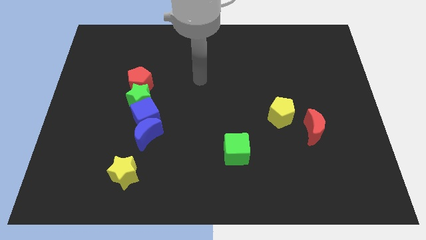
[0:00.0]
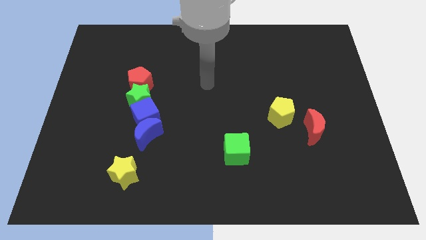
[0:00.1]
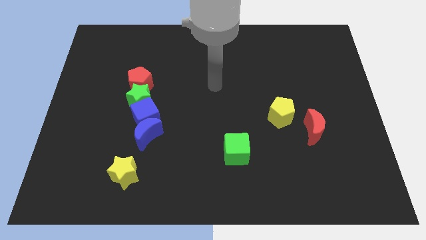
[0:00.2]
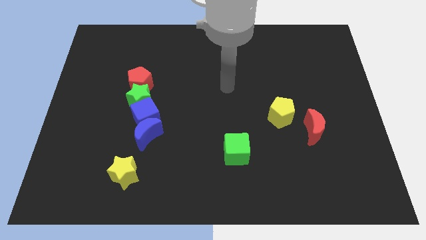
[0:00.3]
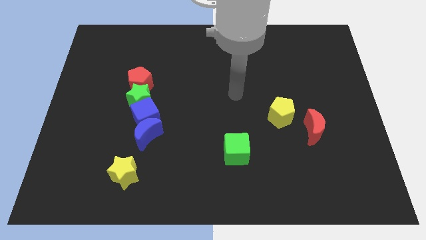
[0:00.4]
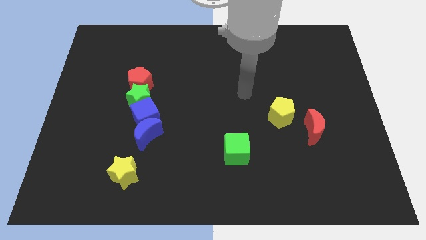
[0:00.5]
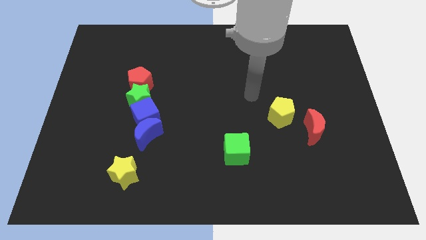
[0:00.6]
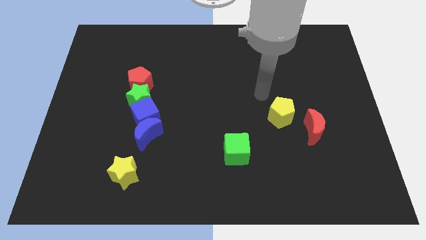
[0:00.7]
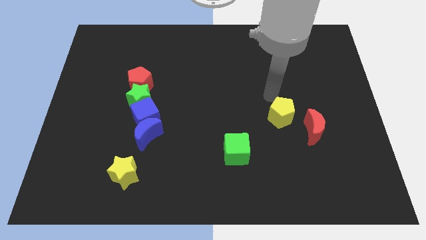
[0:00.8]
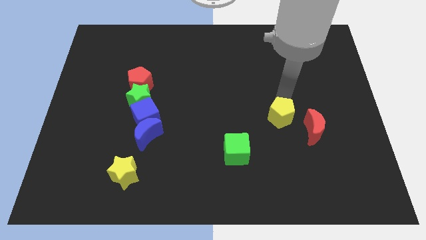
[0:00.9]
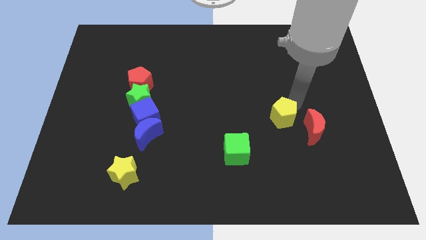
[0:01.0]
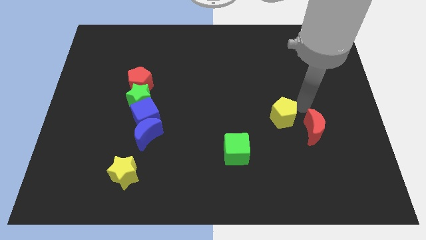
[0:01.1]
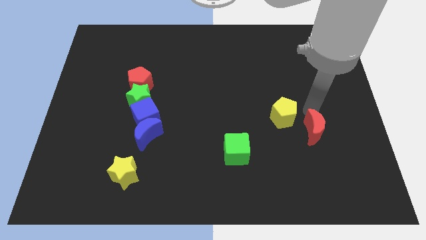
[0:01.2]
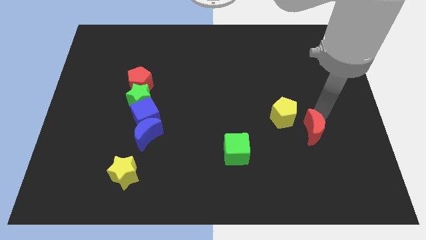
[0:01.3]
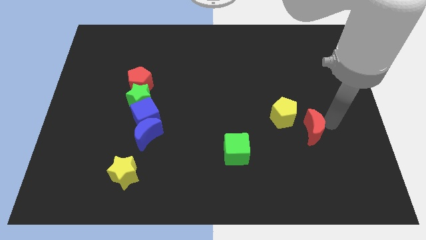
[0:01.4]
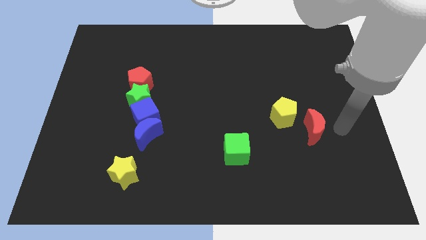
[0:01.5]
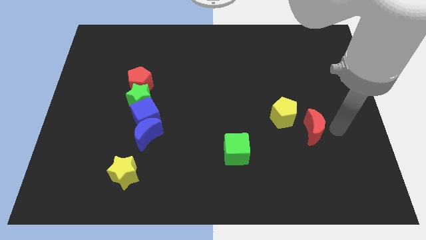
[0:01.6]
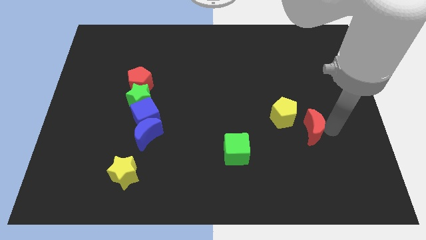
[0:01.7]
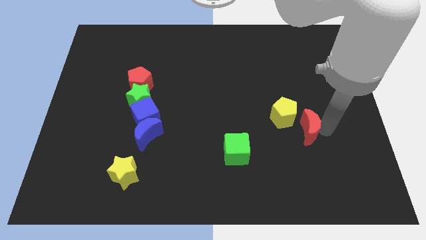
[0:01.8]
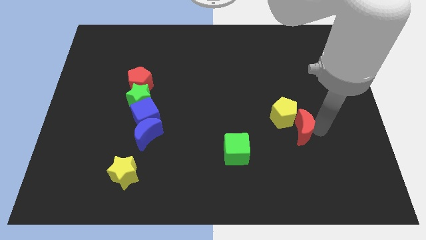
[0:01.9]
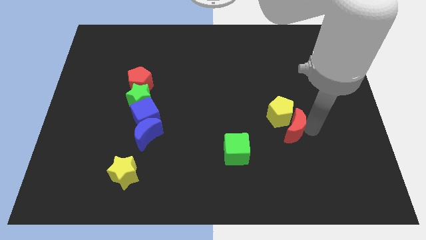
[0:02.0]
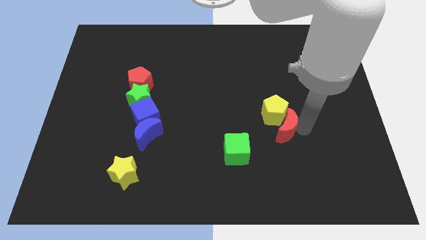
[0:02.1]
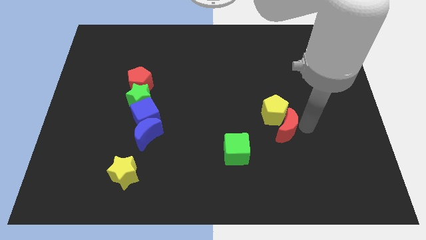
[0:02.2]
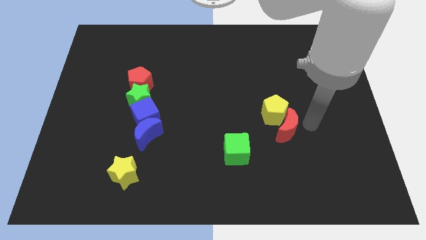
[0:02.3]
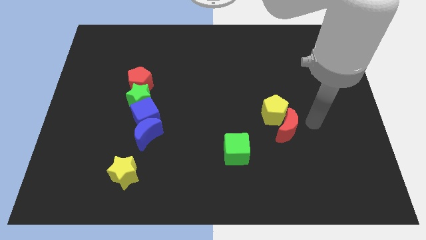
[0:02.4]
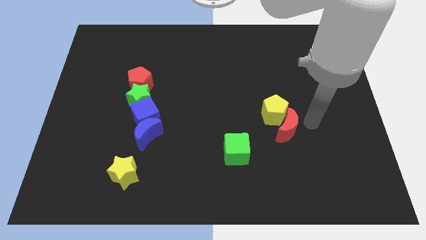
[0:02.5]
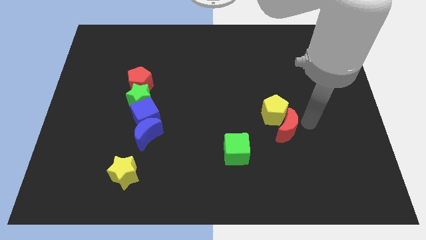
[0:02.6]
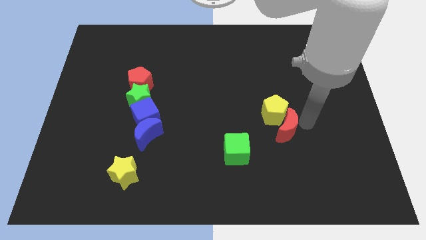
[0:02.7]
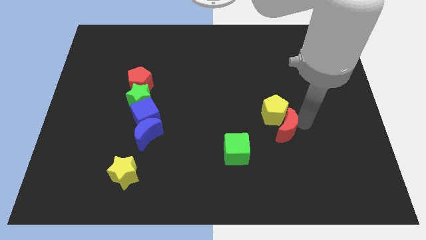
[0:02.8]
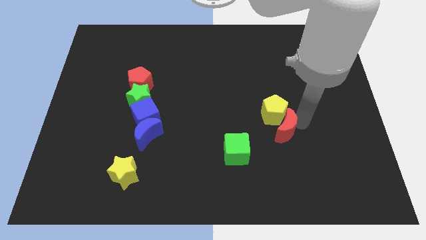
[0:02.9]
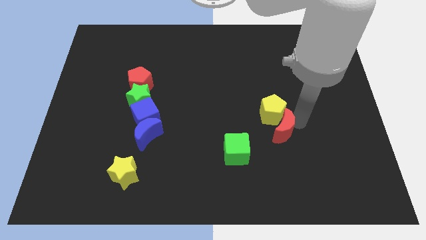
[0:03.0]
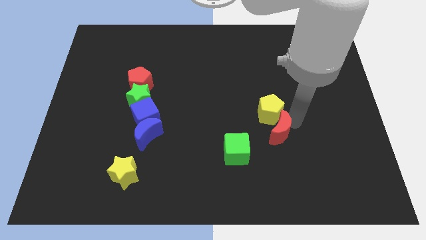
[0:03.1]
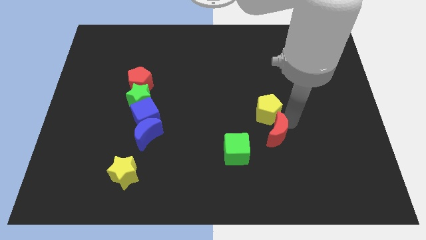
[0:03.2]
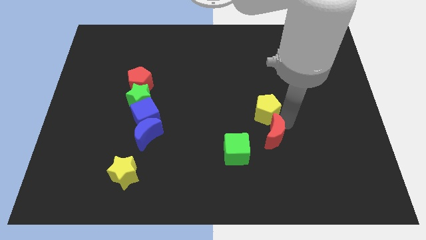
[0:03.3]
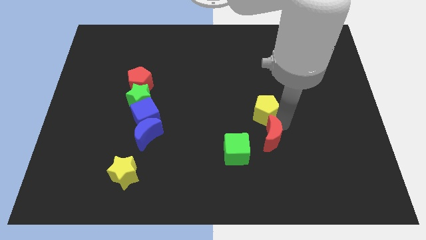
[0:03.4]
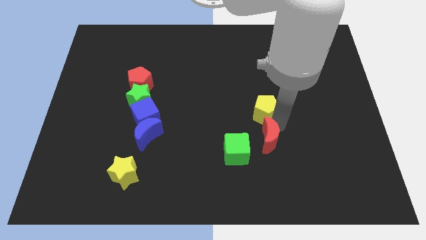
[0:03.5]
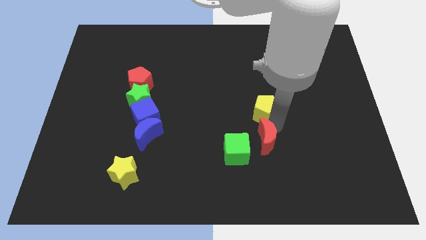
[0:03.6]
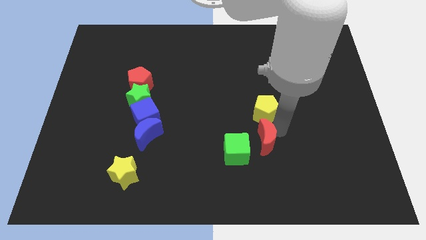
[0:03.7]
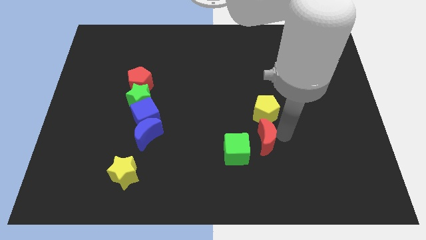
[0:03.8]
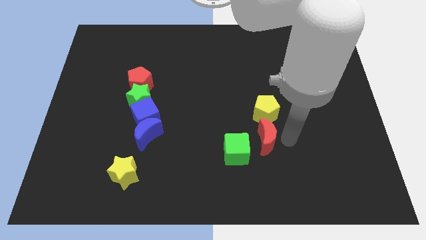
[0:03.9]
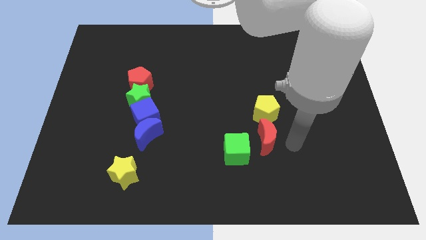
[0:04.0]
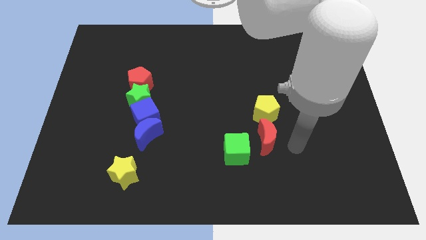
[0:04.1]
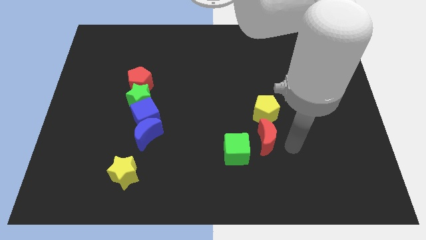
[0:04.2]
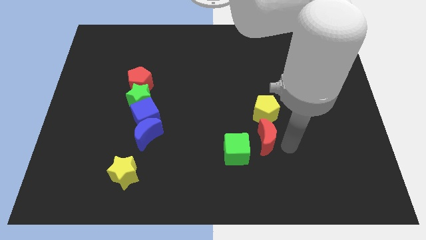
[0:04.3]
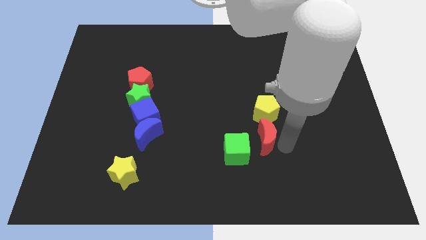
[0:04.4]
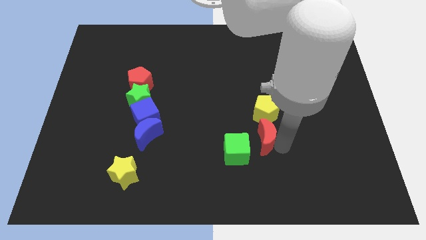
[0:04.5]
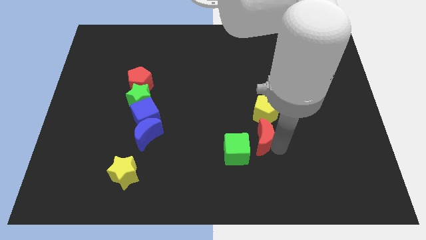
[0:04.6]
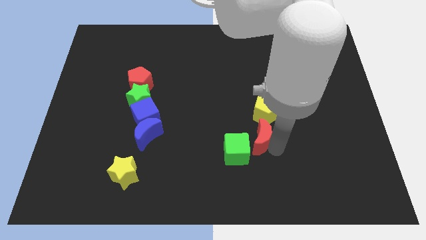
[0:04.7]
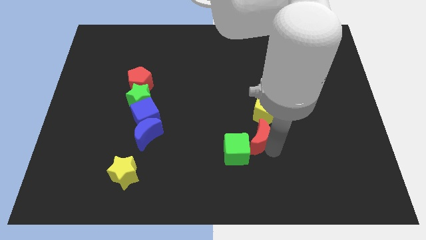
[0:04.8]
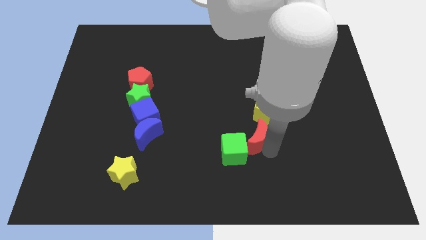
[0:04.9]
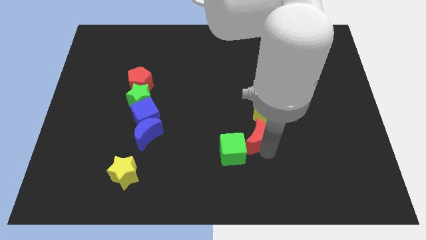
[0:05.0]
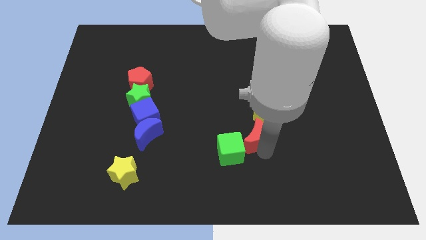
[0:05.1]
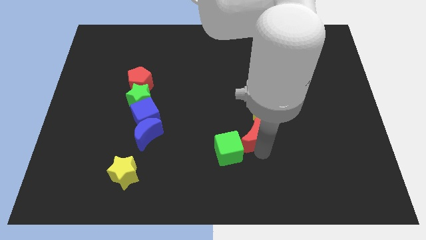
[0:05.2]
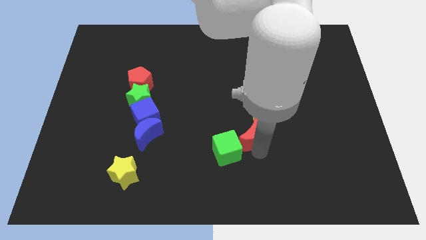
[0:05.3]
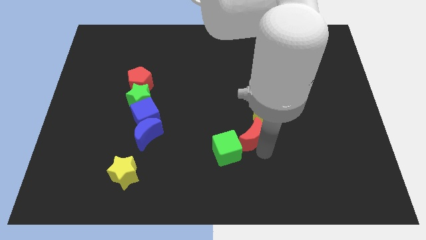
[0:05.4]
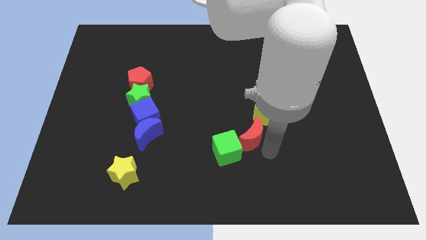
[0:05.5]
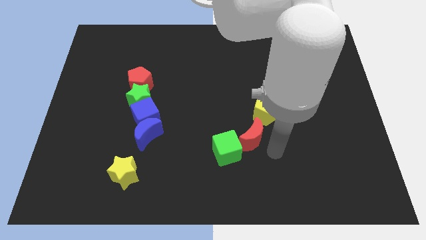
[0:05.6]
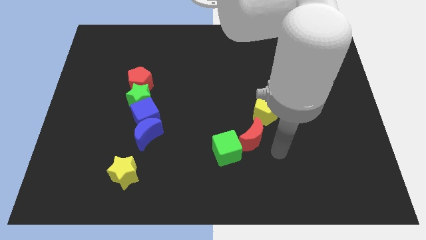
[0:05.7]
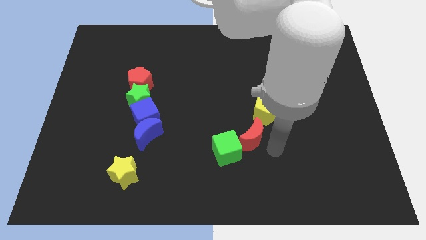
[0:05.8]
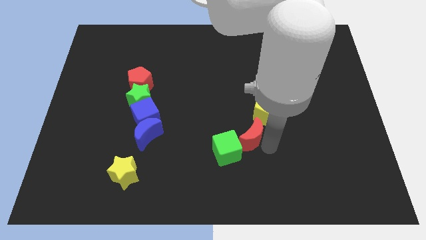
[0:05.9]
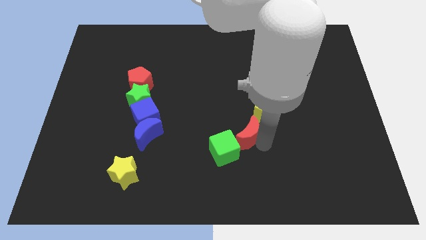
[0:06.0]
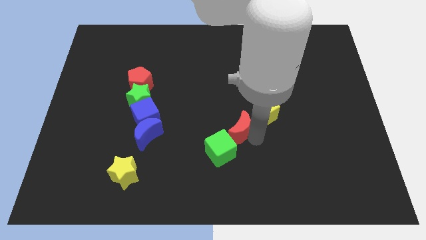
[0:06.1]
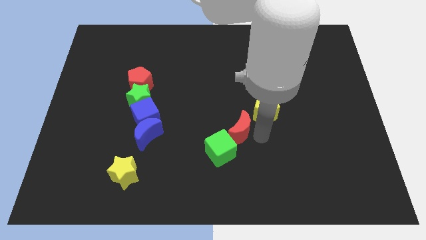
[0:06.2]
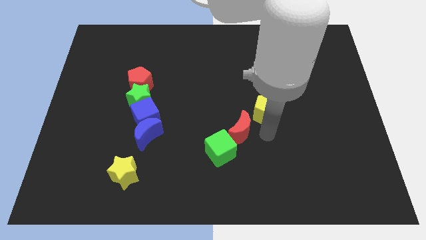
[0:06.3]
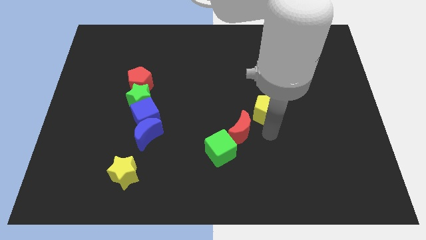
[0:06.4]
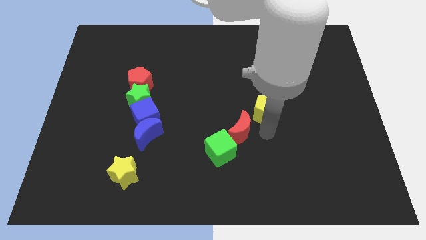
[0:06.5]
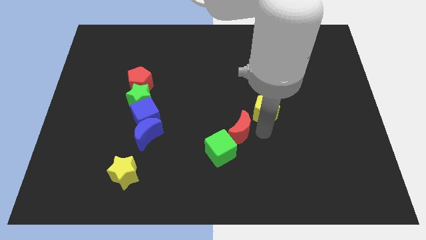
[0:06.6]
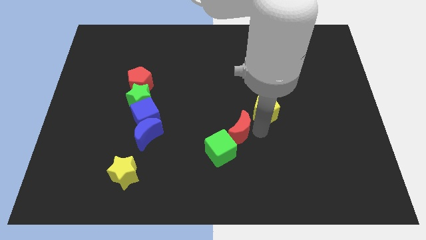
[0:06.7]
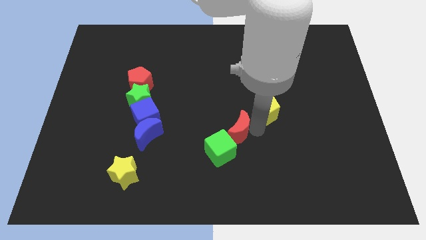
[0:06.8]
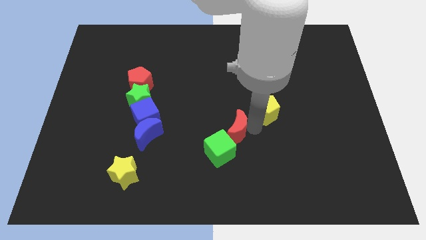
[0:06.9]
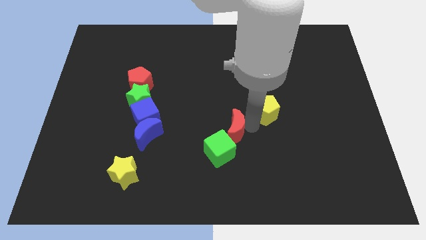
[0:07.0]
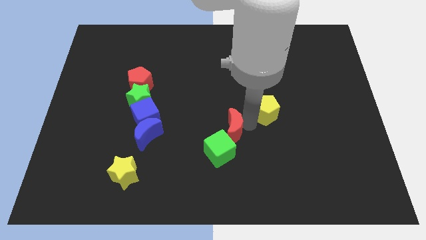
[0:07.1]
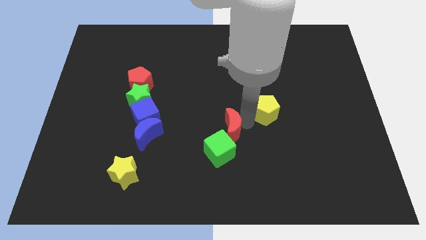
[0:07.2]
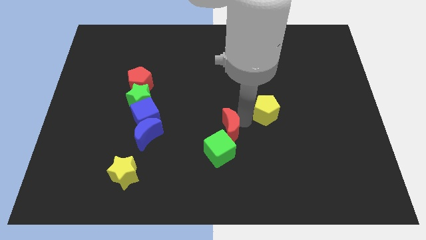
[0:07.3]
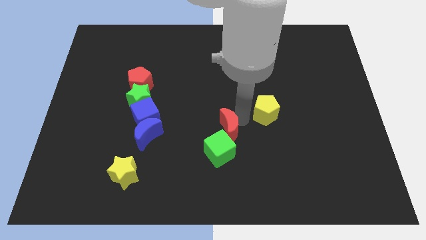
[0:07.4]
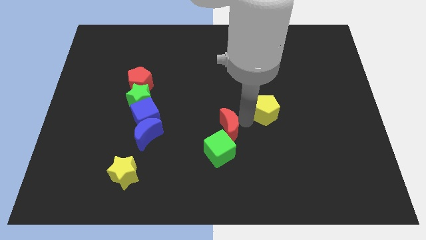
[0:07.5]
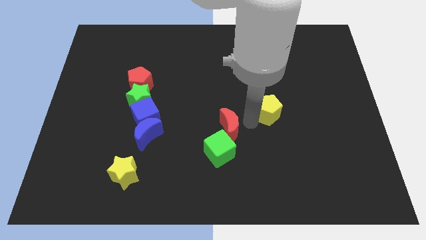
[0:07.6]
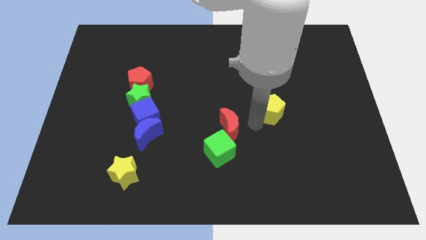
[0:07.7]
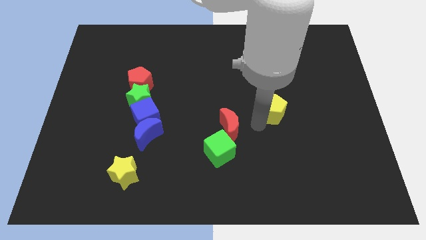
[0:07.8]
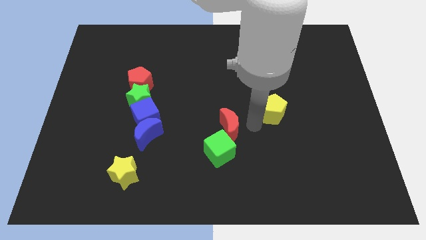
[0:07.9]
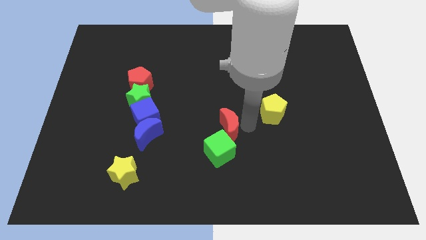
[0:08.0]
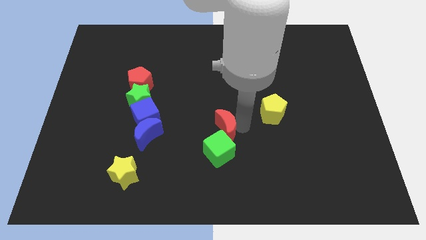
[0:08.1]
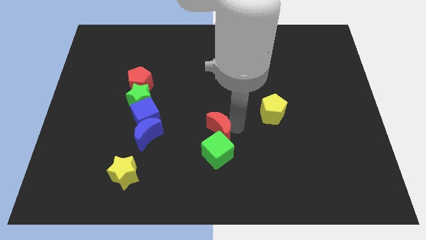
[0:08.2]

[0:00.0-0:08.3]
push the red moon to the left
